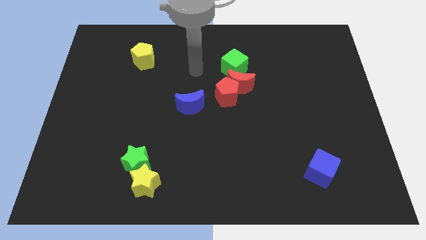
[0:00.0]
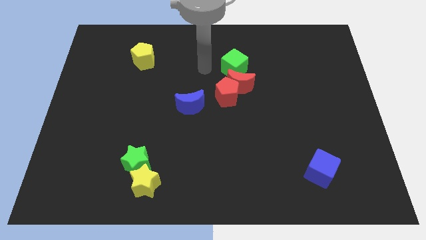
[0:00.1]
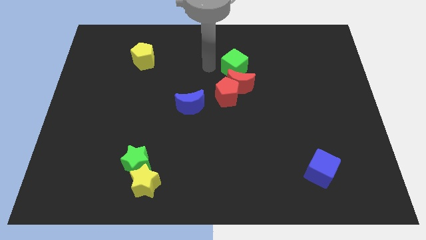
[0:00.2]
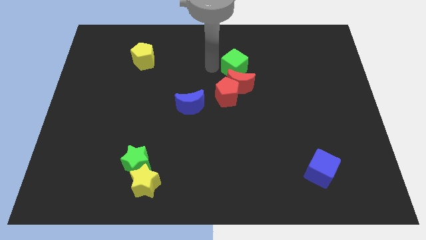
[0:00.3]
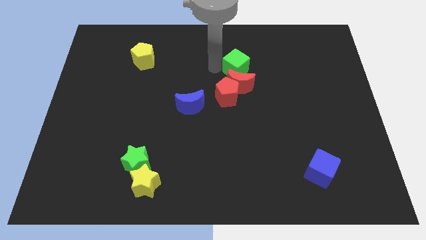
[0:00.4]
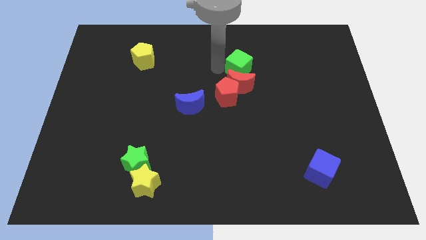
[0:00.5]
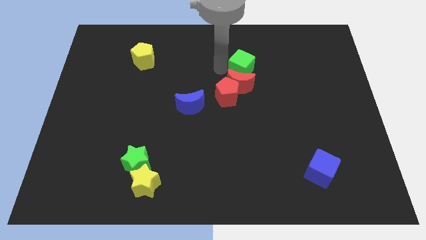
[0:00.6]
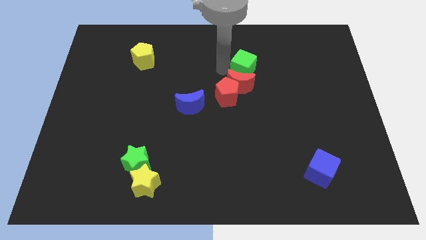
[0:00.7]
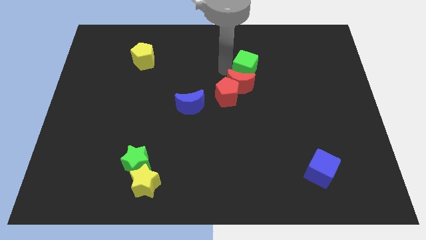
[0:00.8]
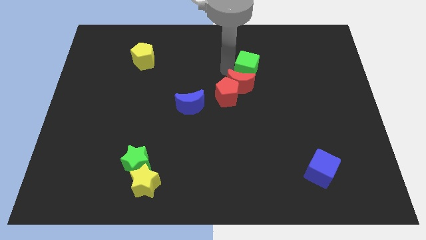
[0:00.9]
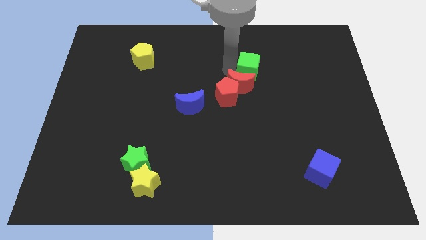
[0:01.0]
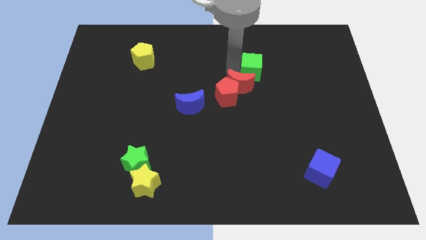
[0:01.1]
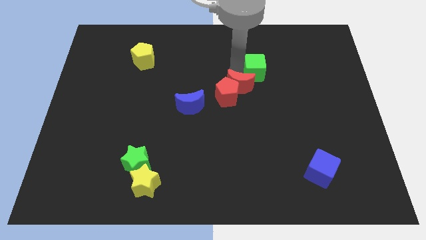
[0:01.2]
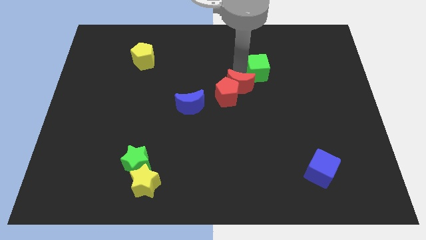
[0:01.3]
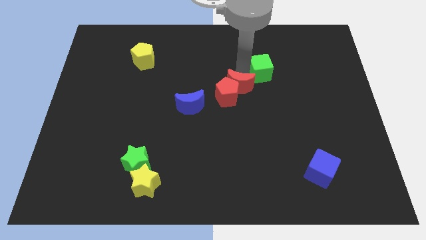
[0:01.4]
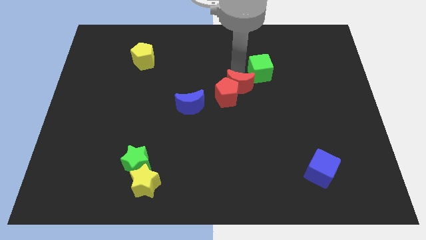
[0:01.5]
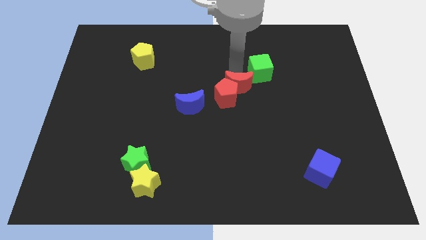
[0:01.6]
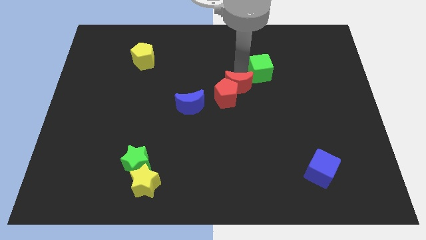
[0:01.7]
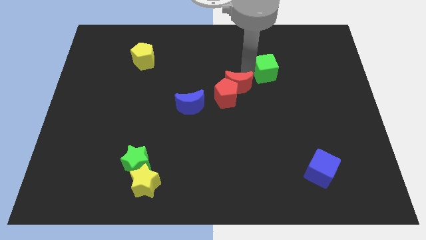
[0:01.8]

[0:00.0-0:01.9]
move the green cube slightly right

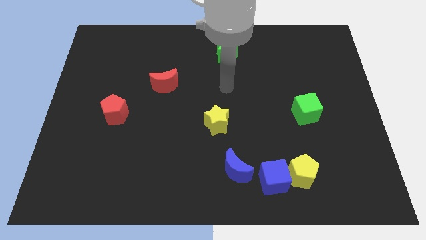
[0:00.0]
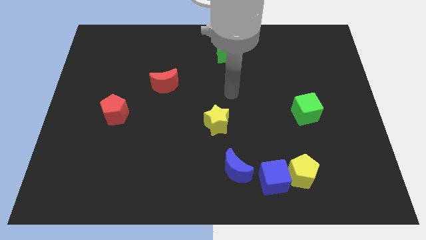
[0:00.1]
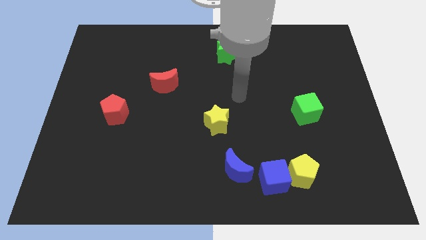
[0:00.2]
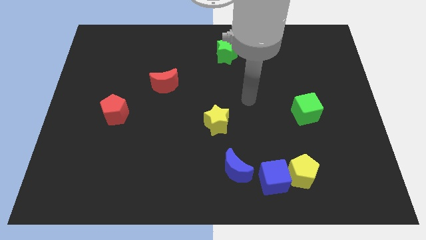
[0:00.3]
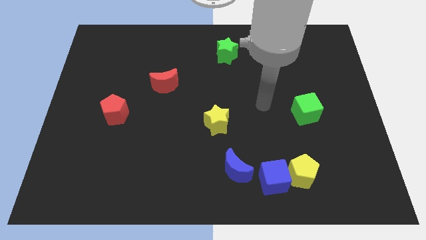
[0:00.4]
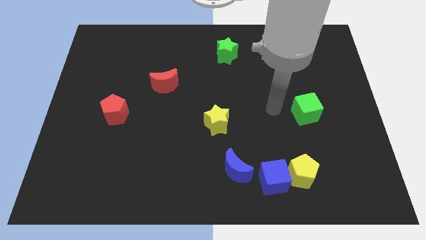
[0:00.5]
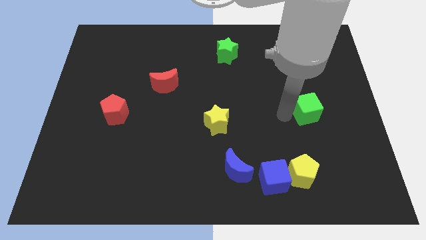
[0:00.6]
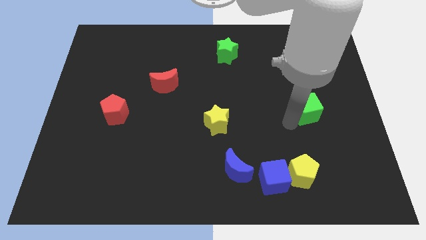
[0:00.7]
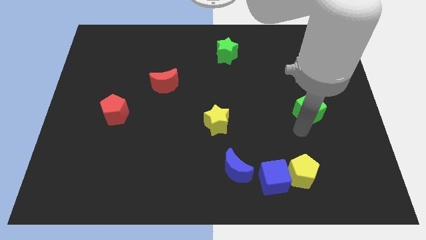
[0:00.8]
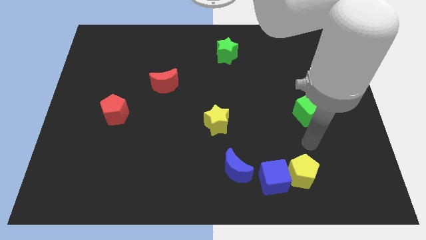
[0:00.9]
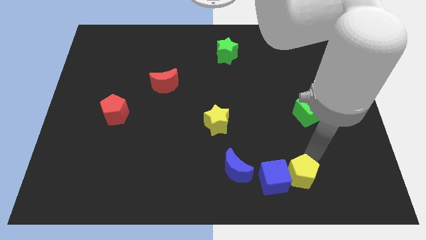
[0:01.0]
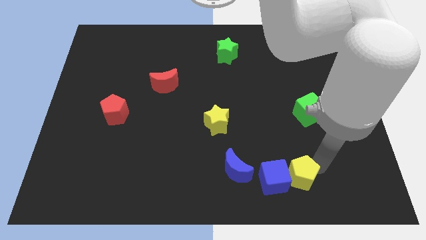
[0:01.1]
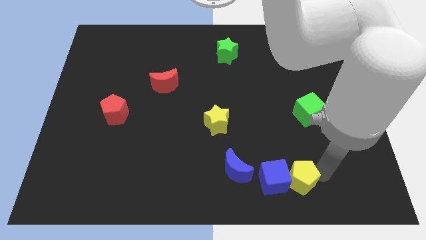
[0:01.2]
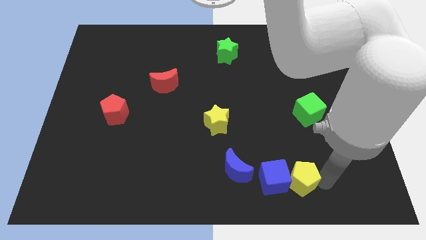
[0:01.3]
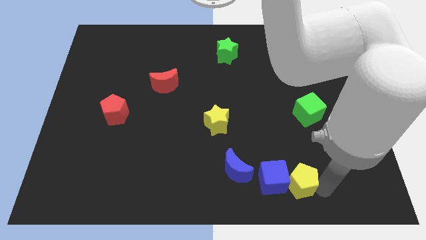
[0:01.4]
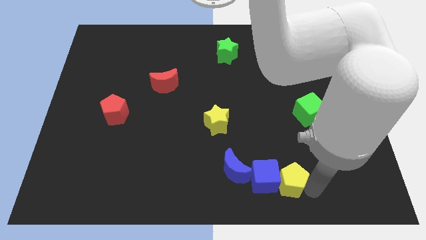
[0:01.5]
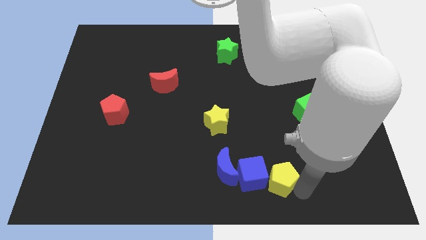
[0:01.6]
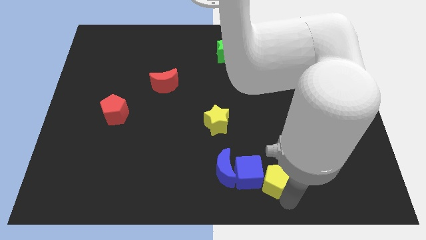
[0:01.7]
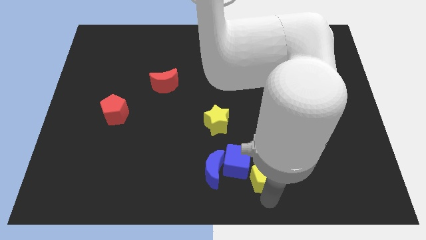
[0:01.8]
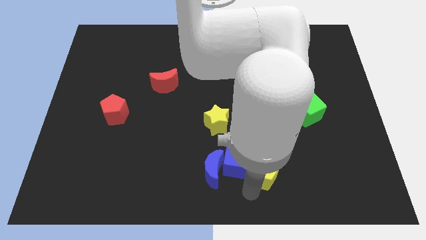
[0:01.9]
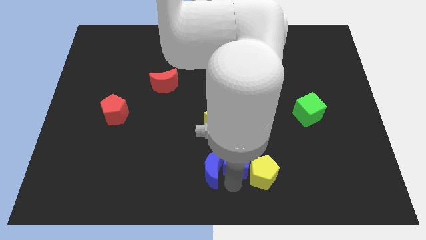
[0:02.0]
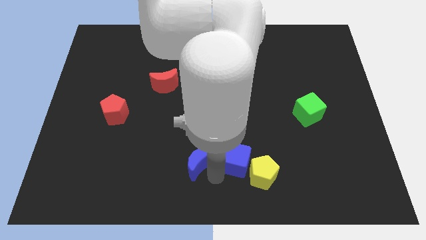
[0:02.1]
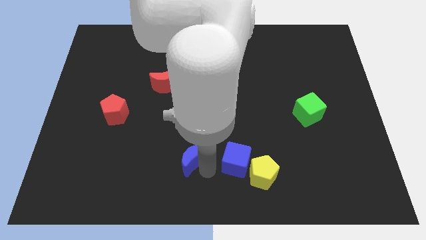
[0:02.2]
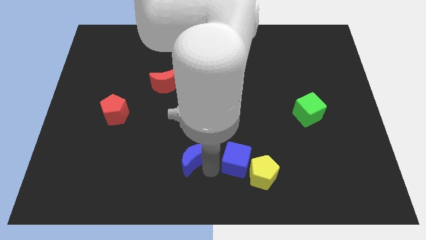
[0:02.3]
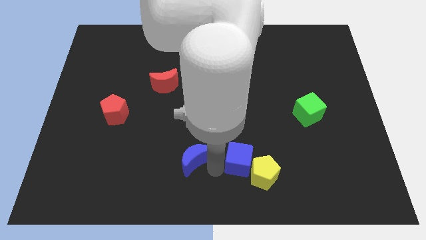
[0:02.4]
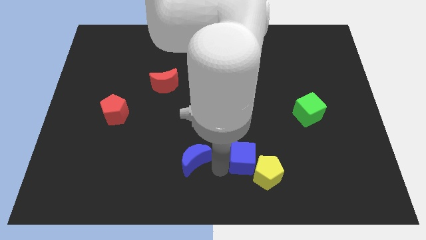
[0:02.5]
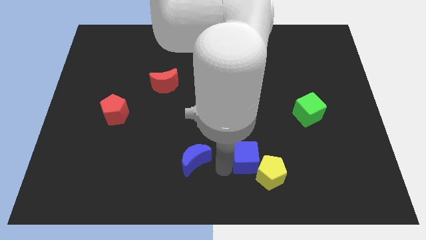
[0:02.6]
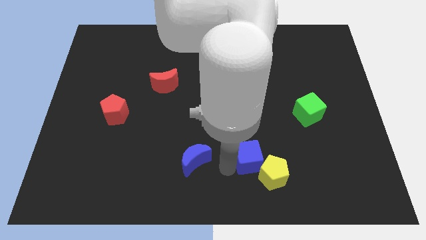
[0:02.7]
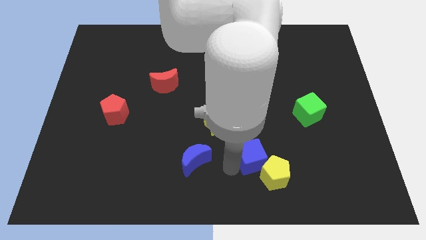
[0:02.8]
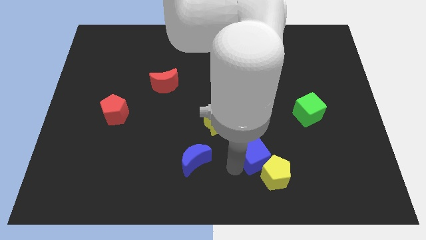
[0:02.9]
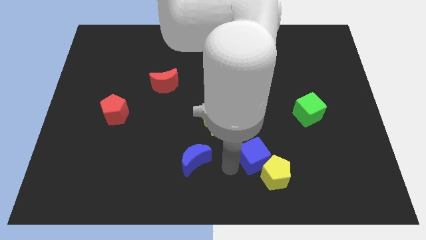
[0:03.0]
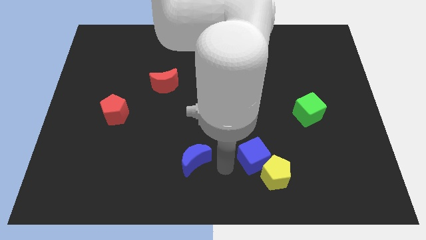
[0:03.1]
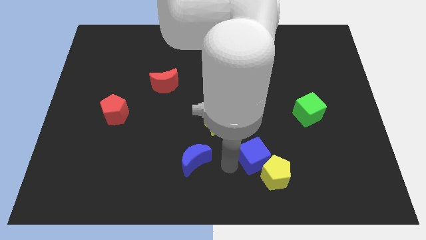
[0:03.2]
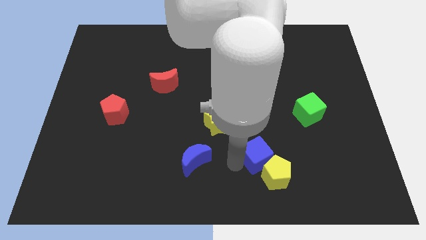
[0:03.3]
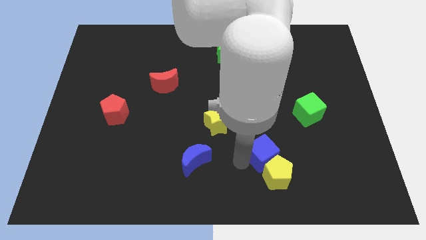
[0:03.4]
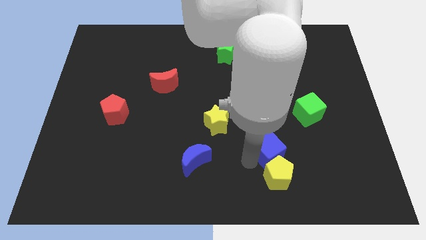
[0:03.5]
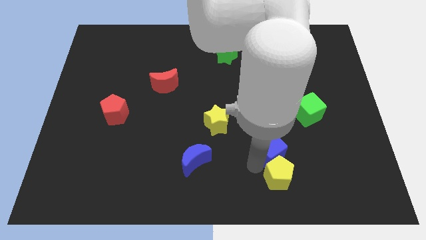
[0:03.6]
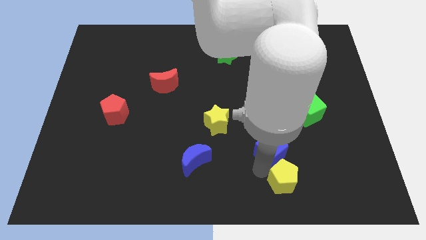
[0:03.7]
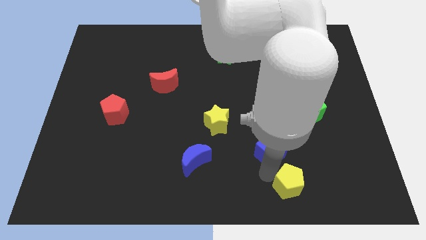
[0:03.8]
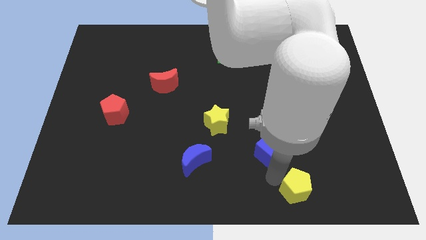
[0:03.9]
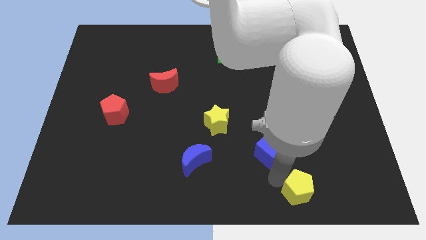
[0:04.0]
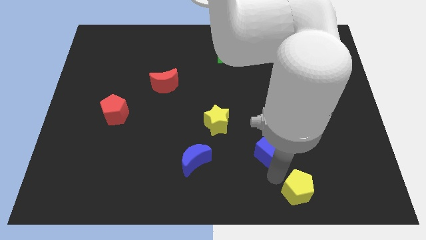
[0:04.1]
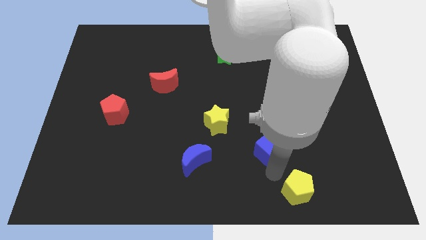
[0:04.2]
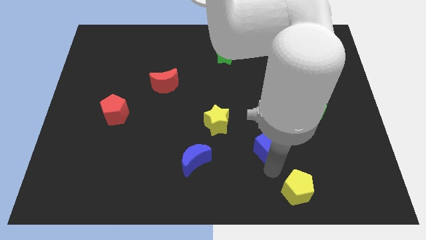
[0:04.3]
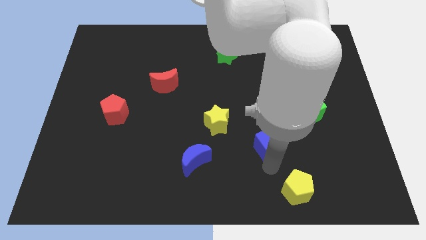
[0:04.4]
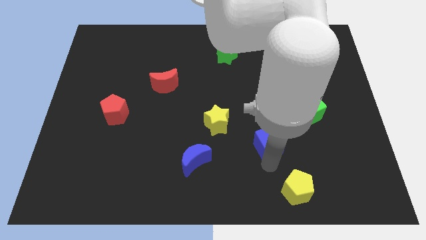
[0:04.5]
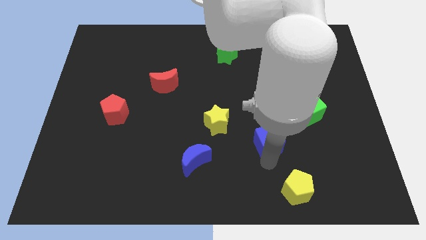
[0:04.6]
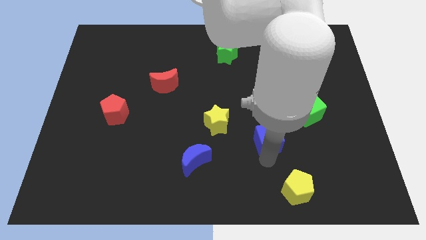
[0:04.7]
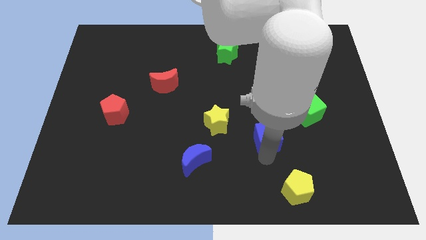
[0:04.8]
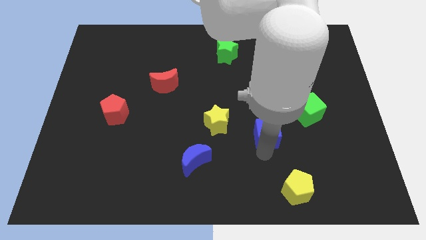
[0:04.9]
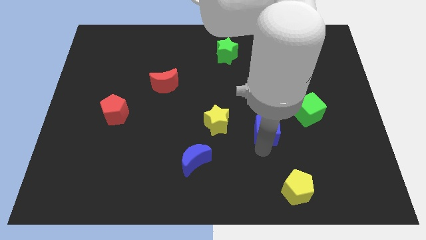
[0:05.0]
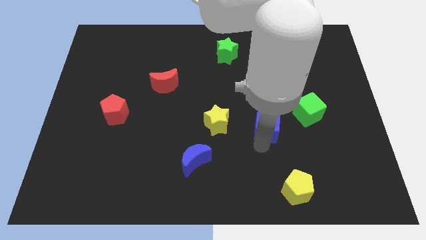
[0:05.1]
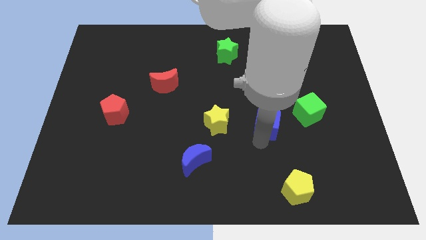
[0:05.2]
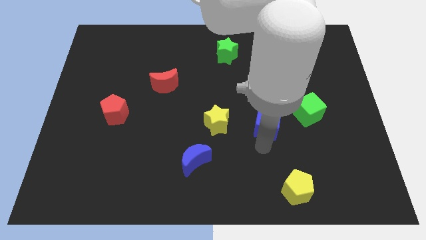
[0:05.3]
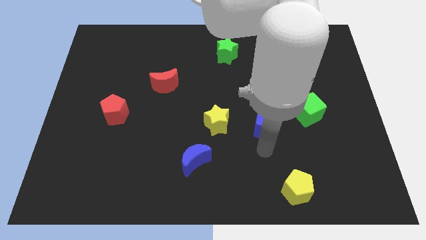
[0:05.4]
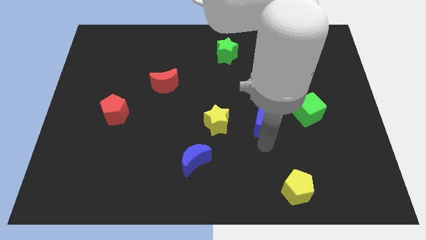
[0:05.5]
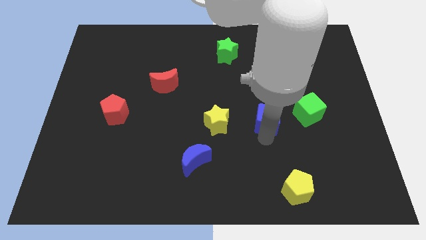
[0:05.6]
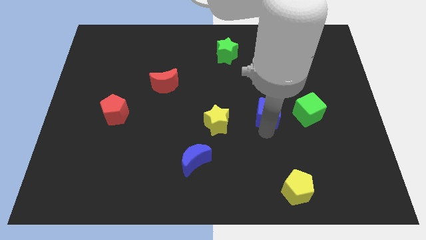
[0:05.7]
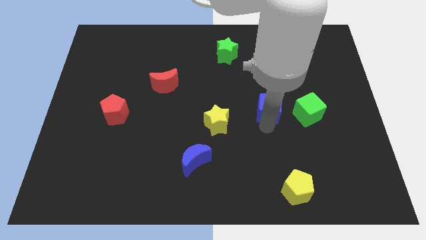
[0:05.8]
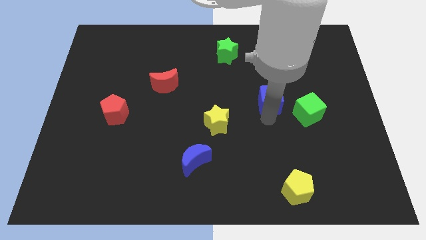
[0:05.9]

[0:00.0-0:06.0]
slide the blue cube up
